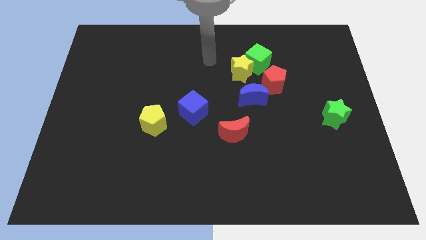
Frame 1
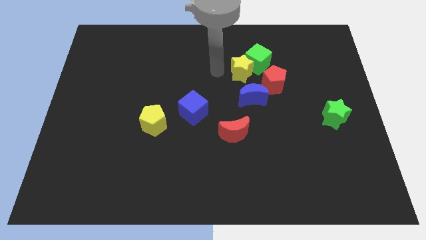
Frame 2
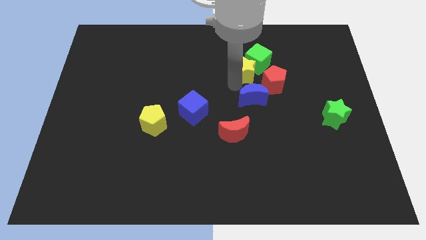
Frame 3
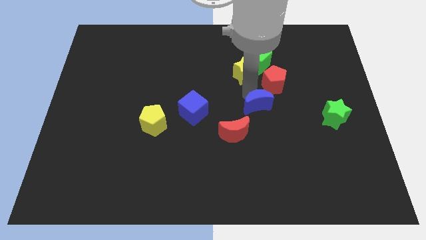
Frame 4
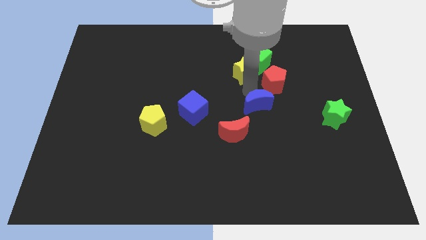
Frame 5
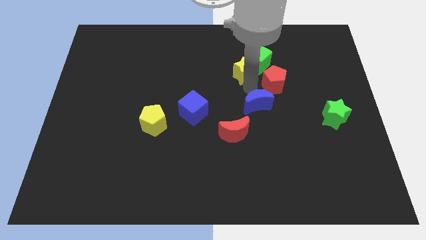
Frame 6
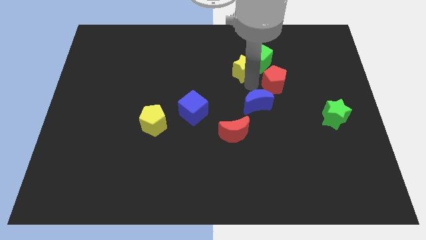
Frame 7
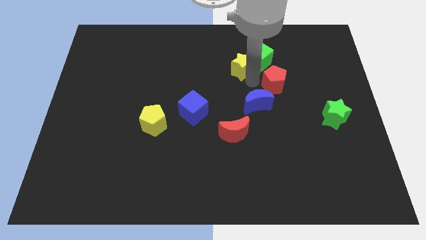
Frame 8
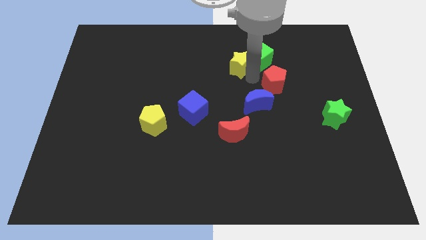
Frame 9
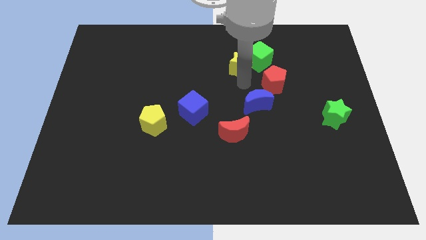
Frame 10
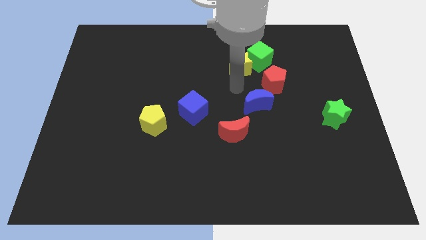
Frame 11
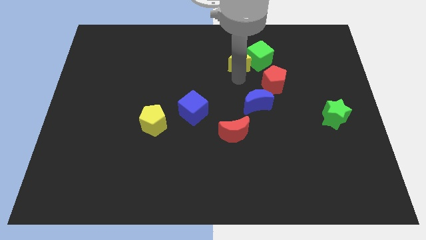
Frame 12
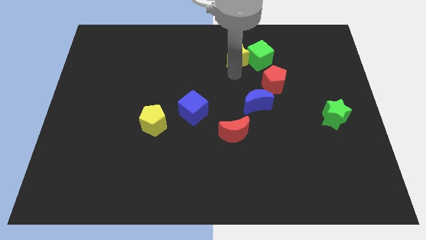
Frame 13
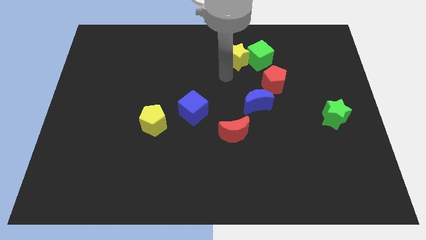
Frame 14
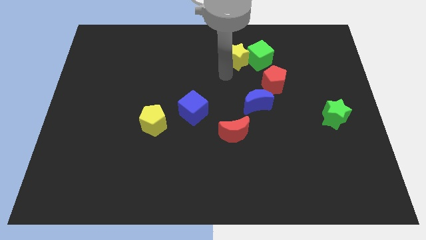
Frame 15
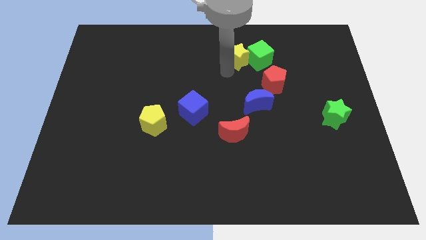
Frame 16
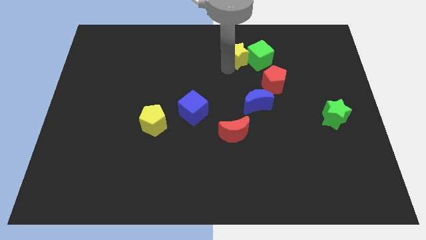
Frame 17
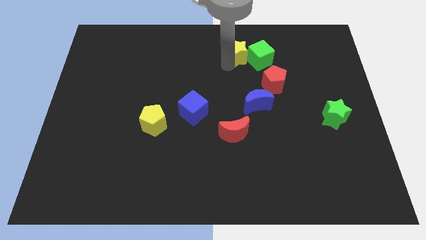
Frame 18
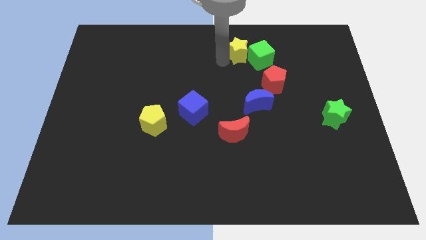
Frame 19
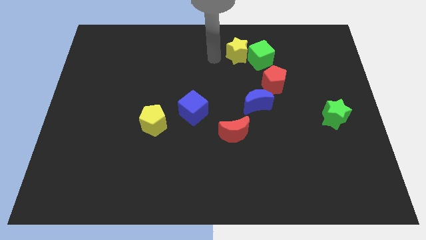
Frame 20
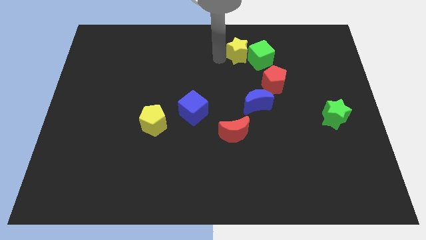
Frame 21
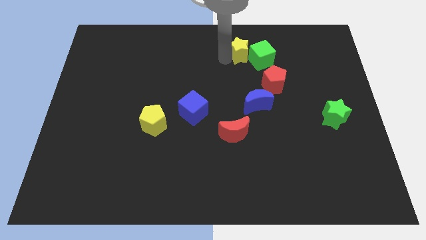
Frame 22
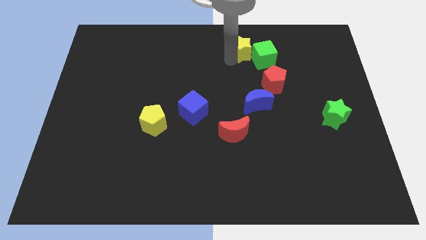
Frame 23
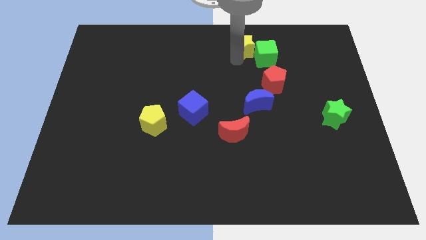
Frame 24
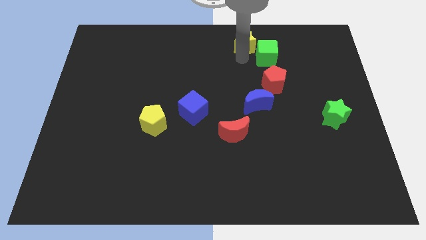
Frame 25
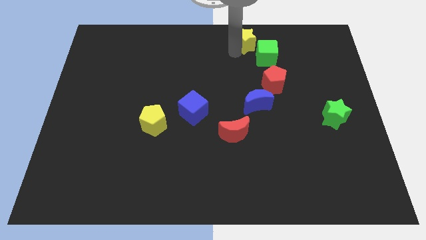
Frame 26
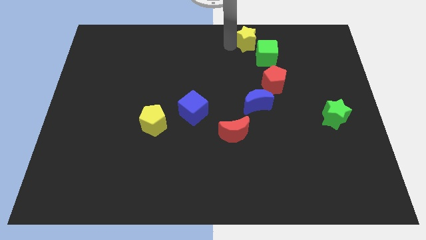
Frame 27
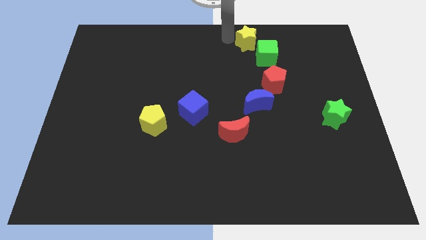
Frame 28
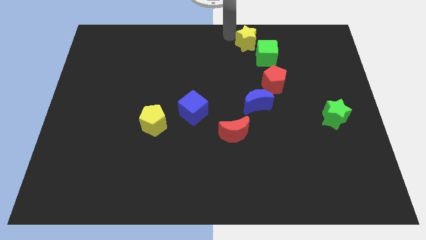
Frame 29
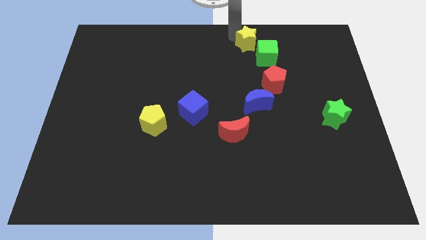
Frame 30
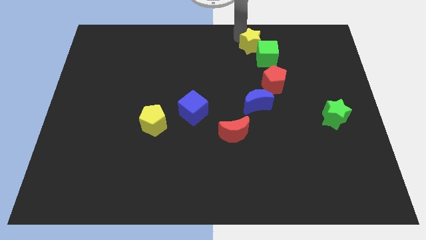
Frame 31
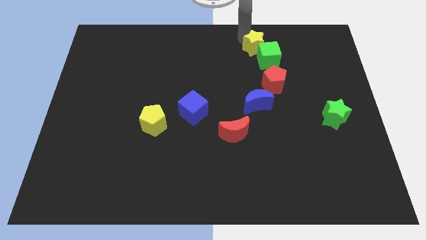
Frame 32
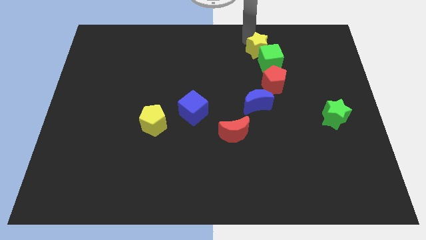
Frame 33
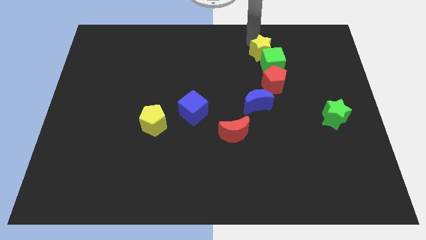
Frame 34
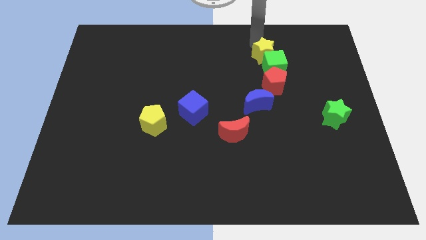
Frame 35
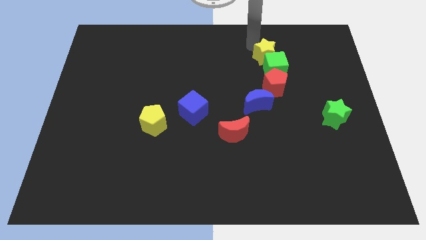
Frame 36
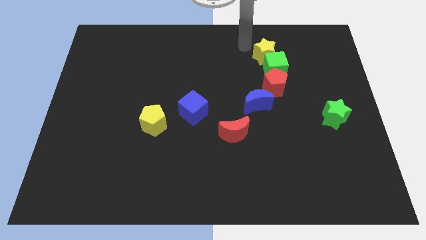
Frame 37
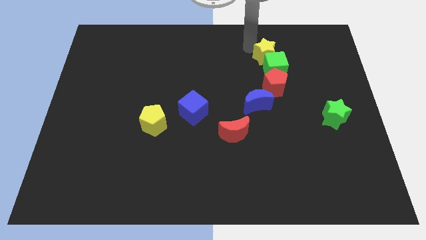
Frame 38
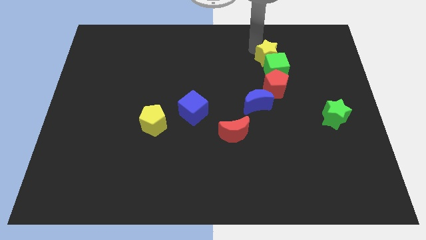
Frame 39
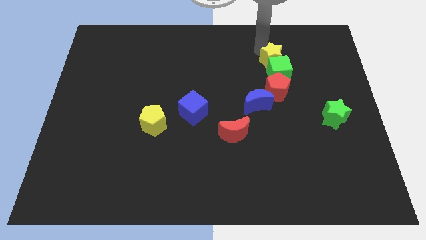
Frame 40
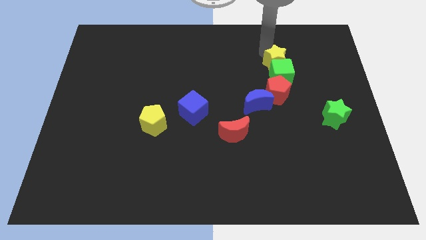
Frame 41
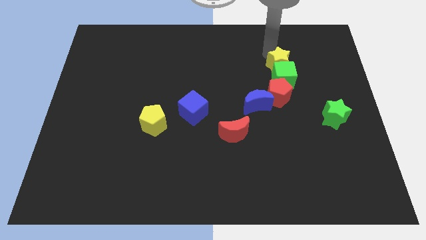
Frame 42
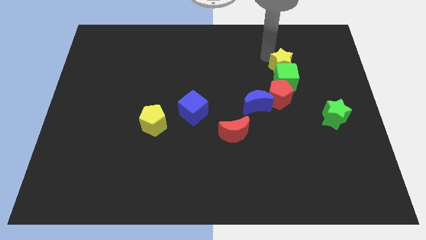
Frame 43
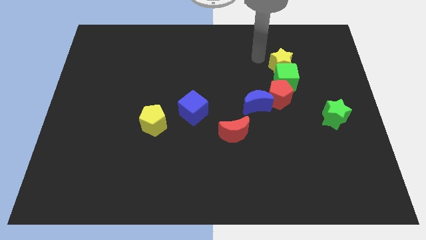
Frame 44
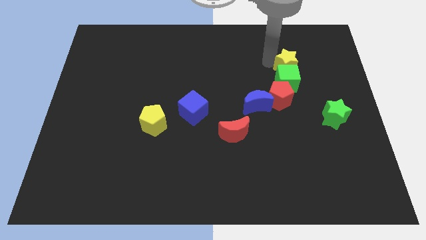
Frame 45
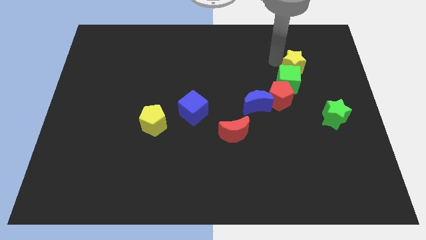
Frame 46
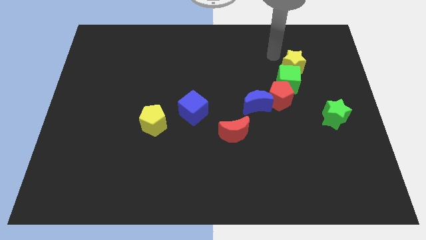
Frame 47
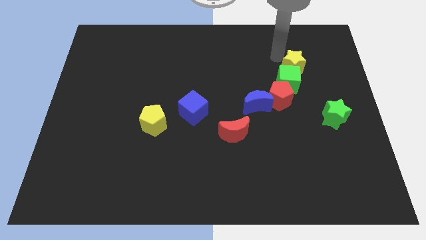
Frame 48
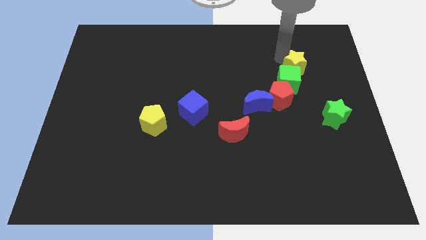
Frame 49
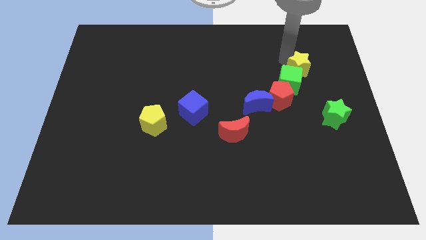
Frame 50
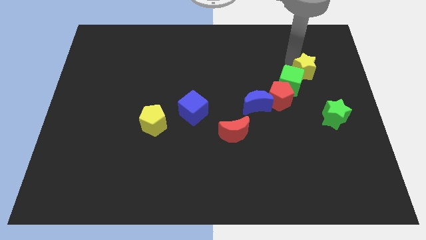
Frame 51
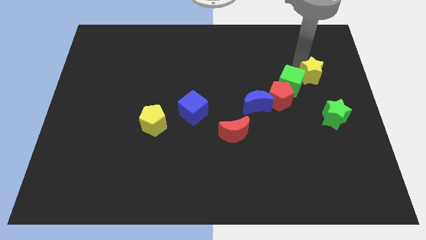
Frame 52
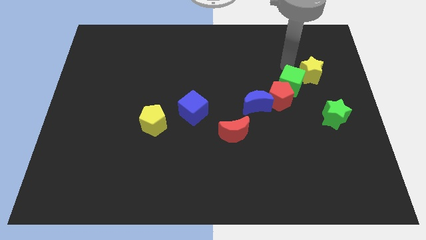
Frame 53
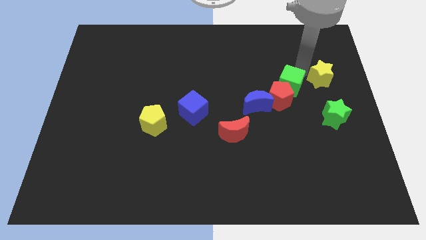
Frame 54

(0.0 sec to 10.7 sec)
move the yellow star to the center right

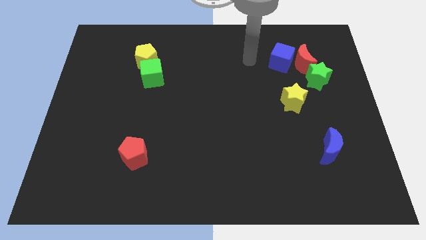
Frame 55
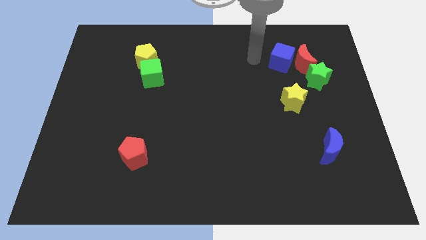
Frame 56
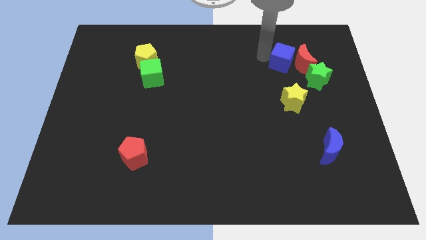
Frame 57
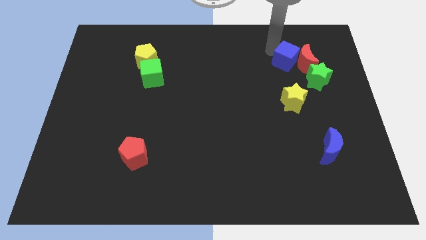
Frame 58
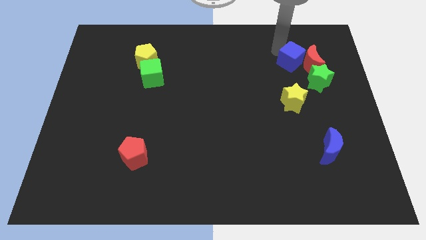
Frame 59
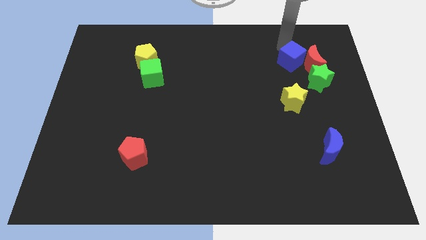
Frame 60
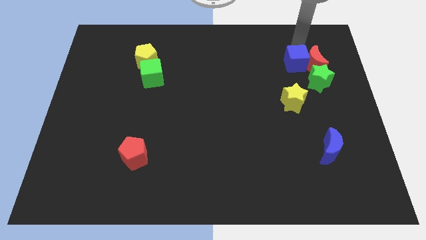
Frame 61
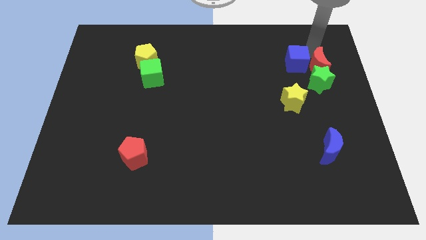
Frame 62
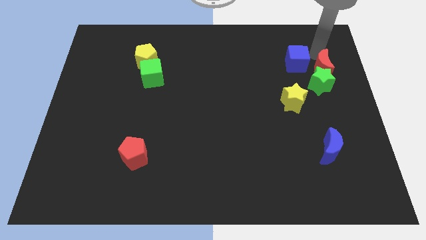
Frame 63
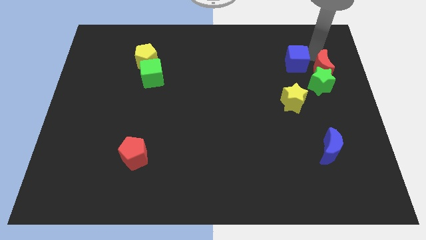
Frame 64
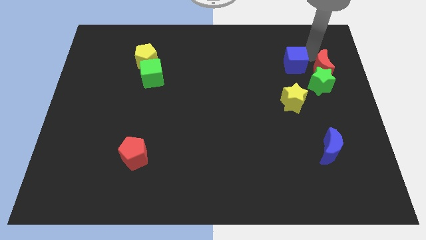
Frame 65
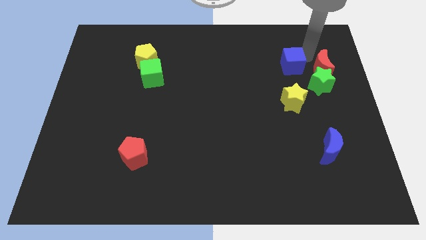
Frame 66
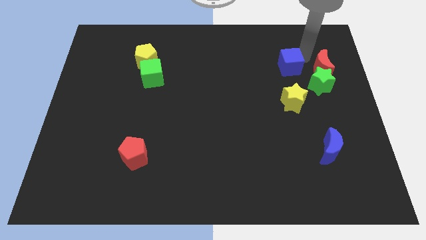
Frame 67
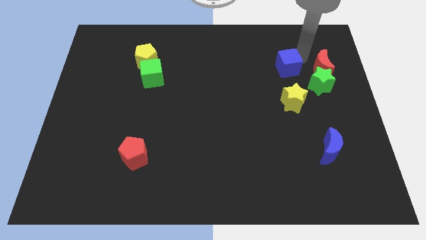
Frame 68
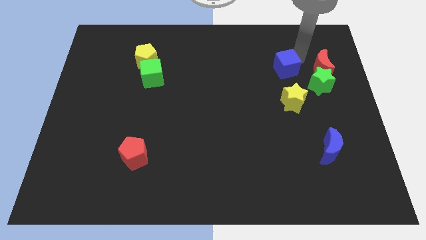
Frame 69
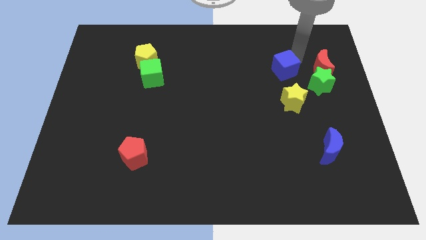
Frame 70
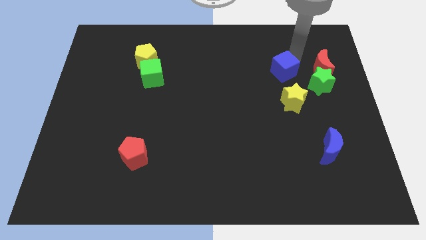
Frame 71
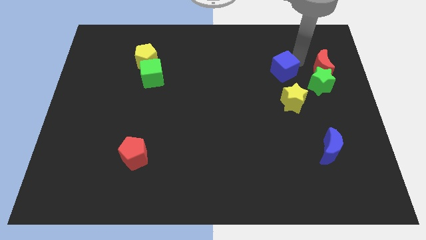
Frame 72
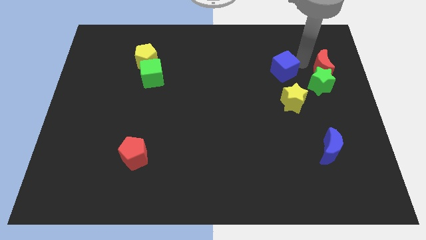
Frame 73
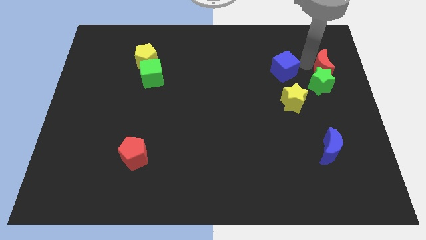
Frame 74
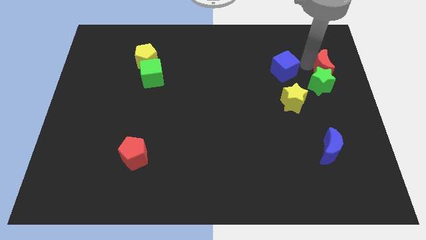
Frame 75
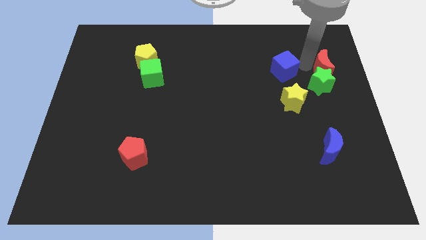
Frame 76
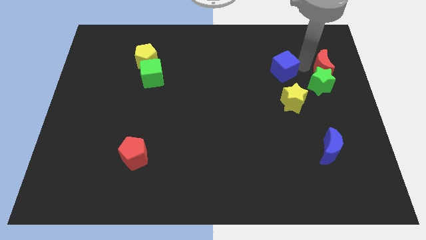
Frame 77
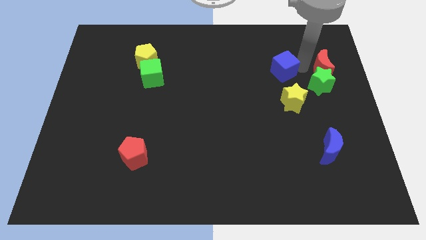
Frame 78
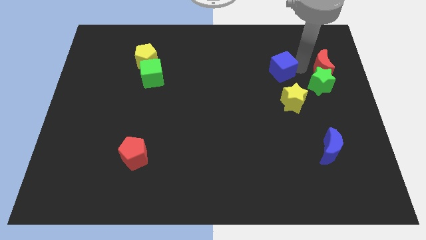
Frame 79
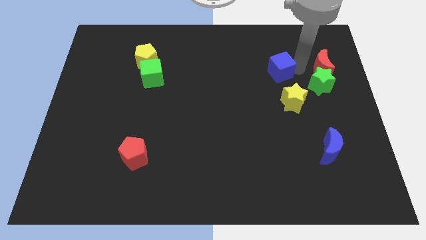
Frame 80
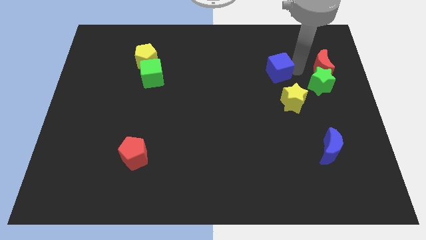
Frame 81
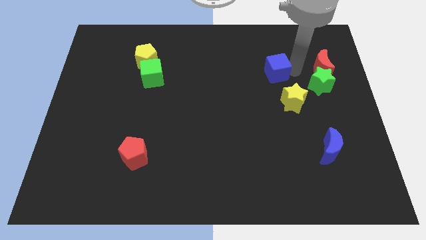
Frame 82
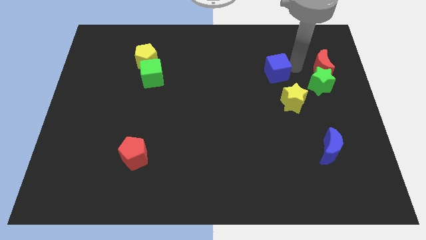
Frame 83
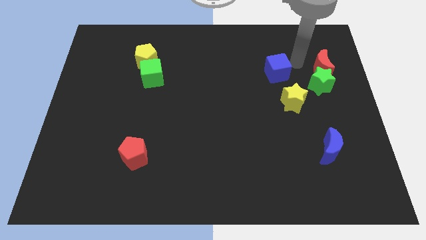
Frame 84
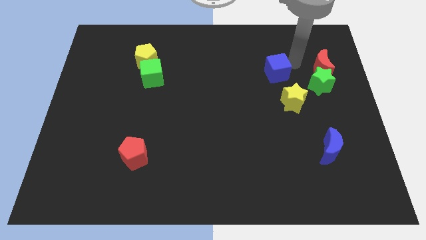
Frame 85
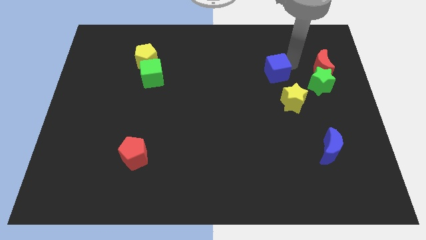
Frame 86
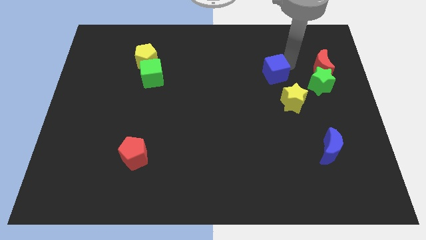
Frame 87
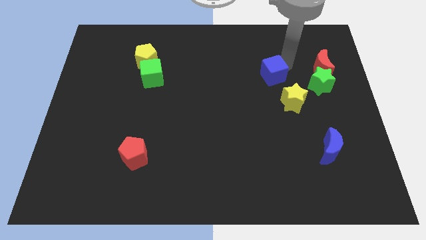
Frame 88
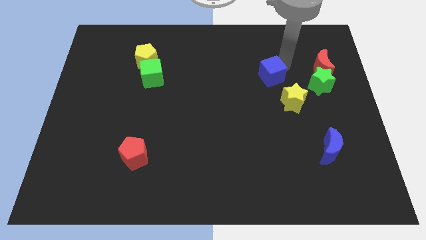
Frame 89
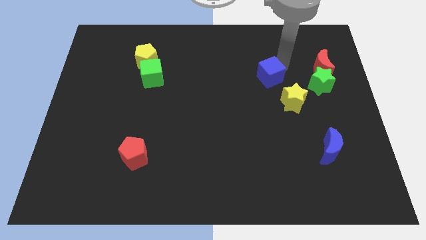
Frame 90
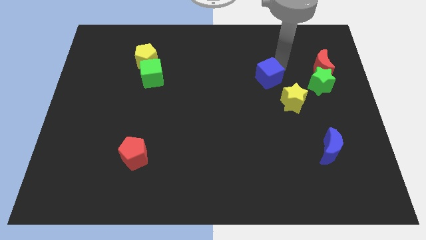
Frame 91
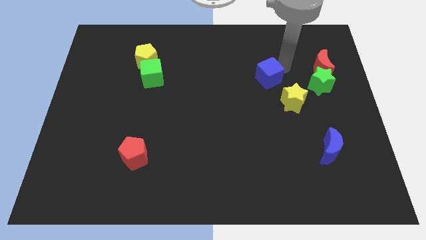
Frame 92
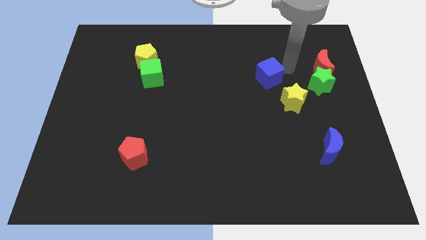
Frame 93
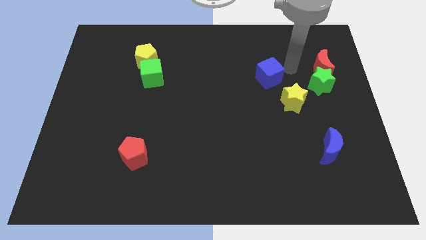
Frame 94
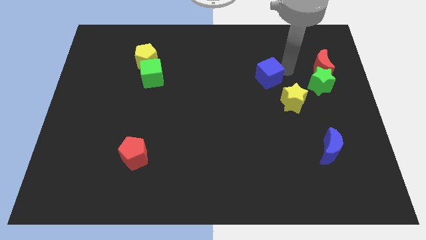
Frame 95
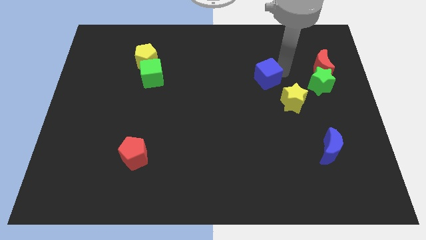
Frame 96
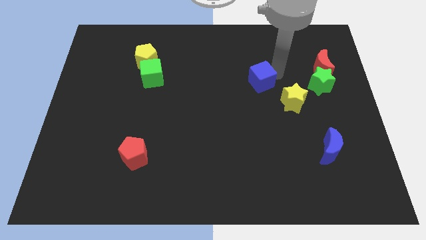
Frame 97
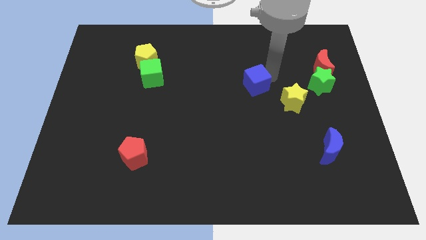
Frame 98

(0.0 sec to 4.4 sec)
put the blue cube to the center
